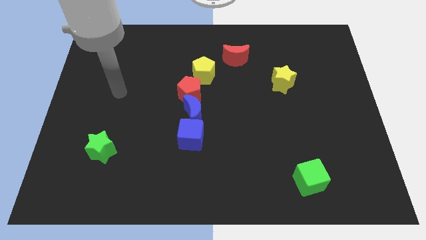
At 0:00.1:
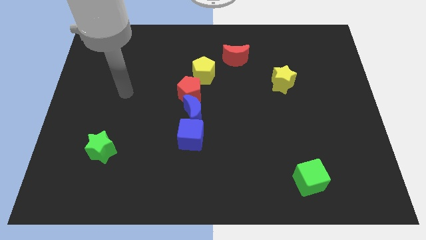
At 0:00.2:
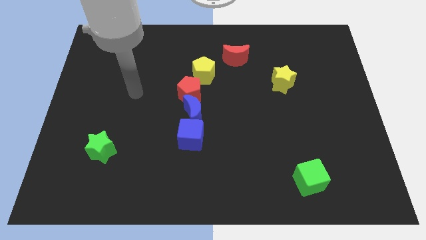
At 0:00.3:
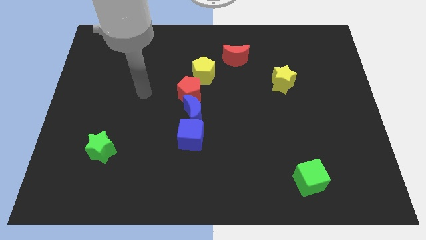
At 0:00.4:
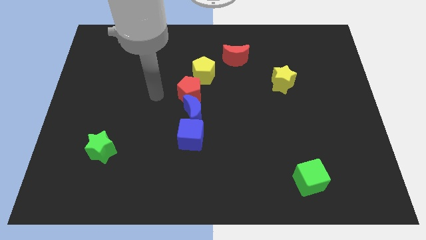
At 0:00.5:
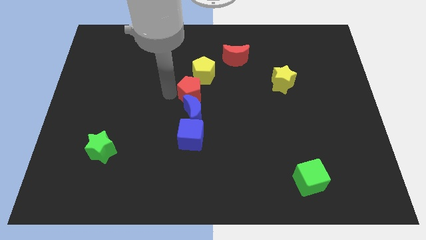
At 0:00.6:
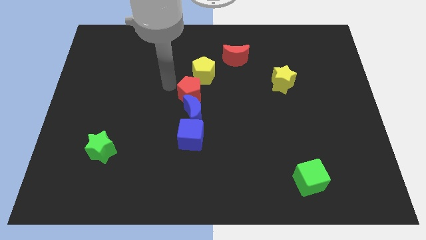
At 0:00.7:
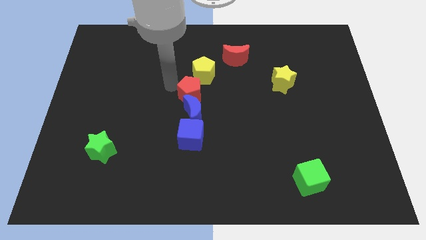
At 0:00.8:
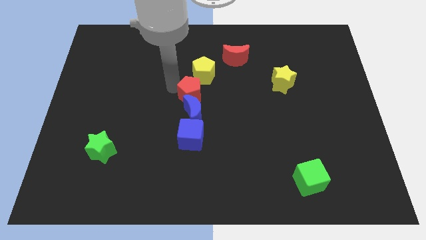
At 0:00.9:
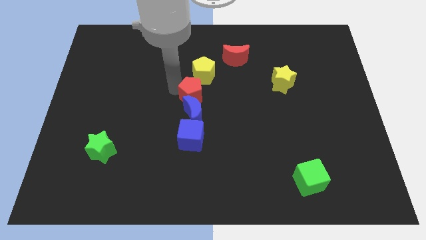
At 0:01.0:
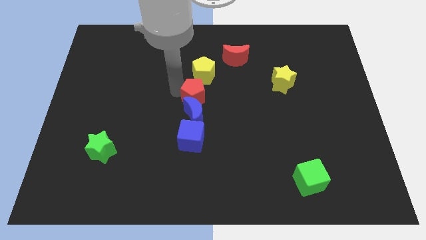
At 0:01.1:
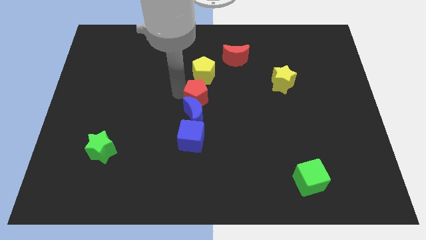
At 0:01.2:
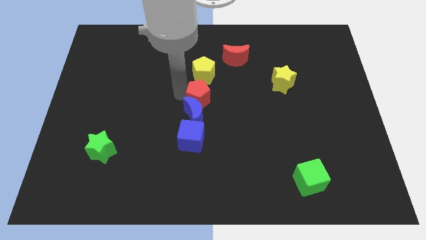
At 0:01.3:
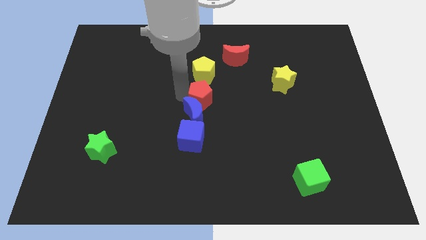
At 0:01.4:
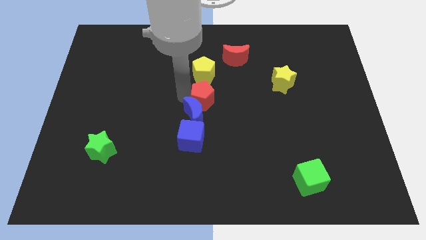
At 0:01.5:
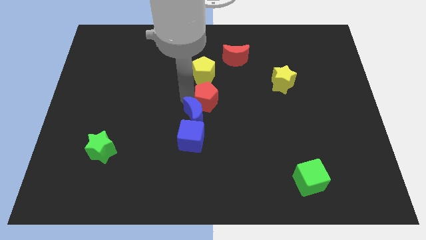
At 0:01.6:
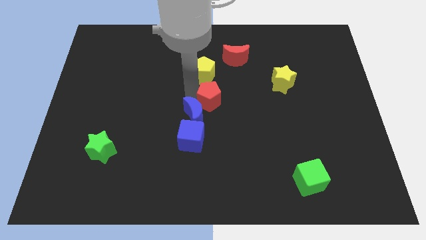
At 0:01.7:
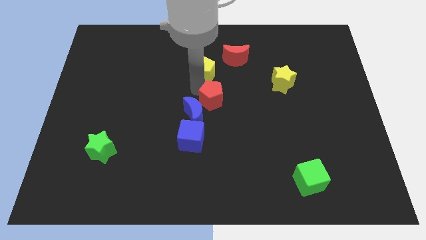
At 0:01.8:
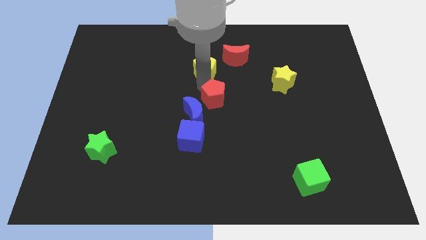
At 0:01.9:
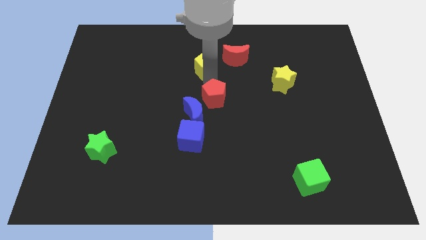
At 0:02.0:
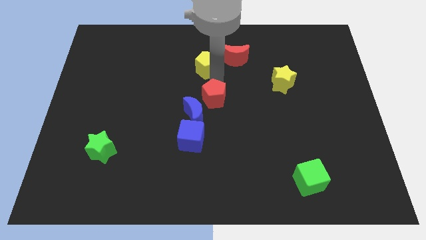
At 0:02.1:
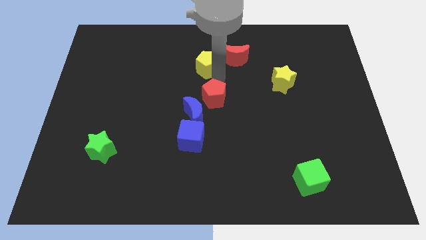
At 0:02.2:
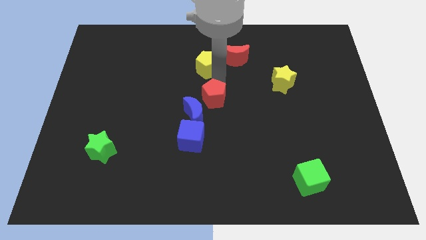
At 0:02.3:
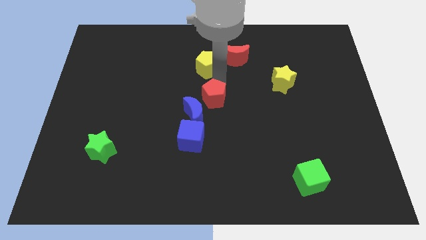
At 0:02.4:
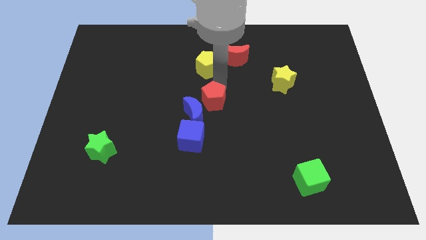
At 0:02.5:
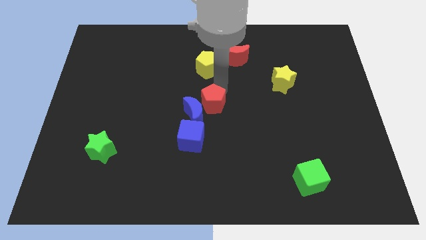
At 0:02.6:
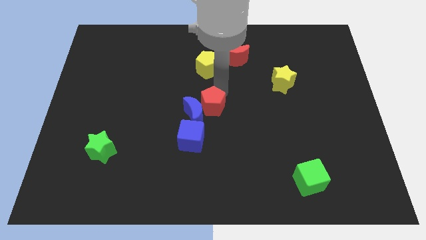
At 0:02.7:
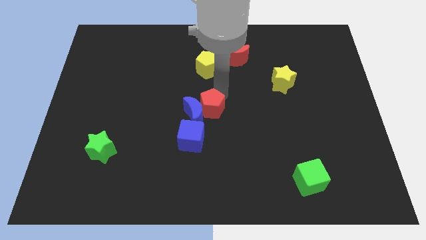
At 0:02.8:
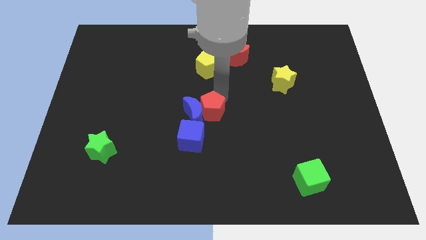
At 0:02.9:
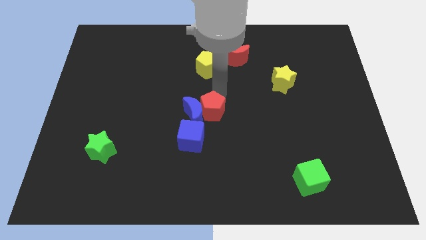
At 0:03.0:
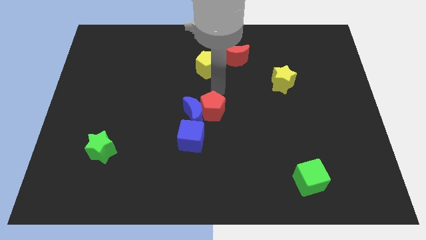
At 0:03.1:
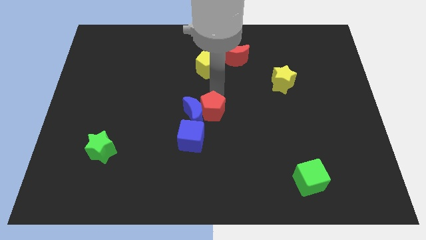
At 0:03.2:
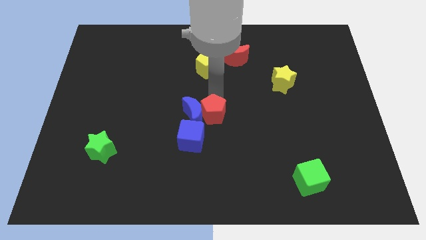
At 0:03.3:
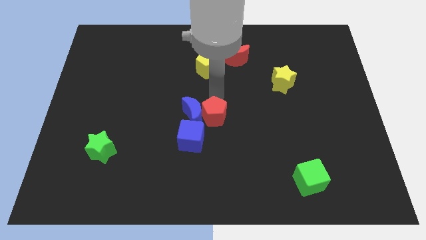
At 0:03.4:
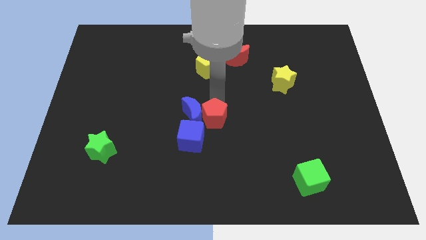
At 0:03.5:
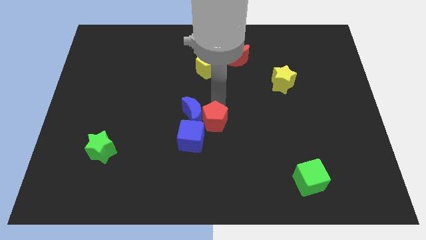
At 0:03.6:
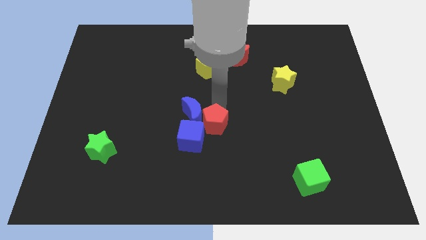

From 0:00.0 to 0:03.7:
slightly move the red pentagon down

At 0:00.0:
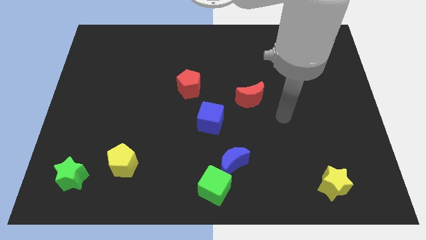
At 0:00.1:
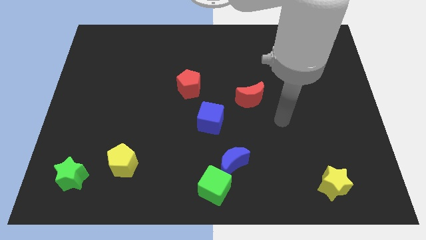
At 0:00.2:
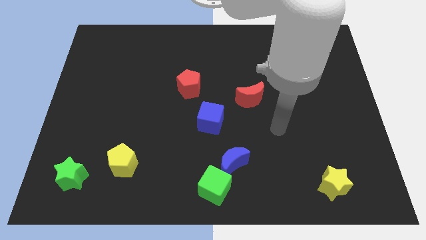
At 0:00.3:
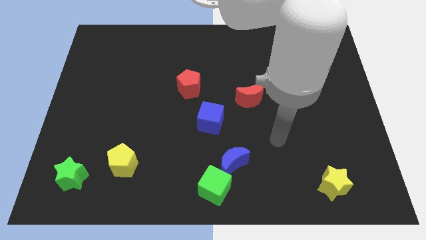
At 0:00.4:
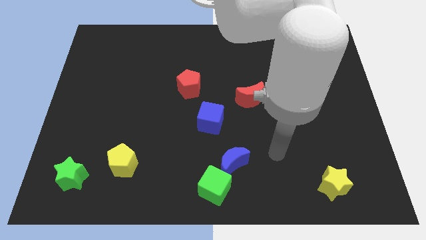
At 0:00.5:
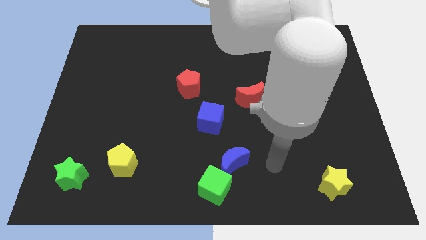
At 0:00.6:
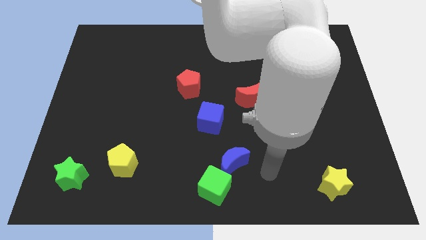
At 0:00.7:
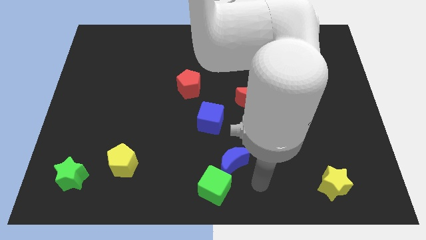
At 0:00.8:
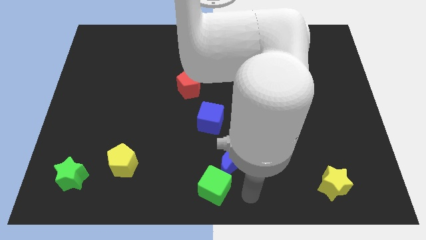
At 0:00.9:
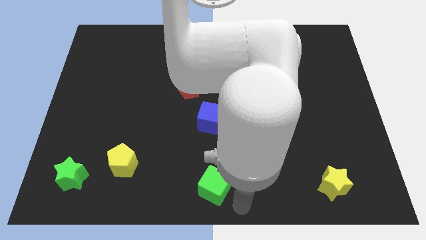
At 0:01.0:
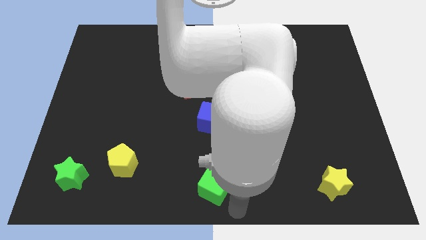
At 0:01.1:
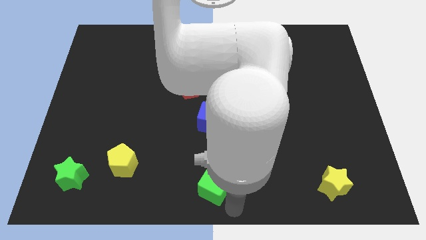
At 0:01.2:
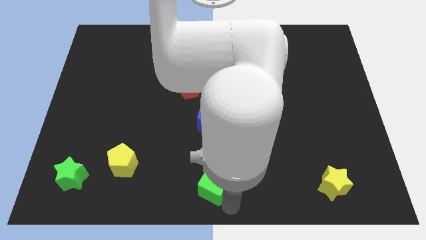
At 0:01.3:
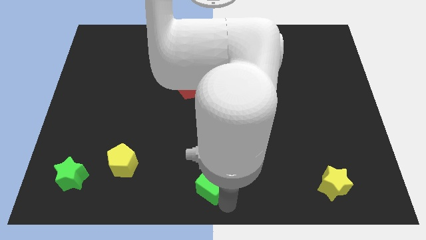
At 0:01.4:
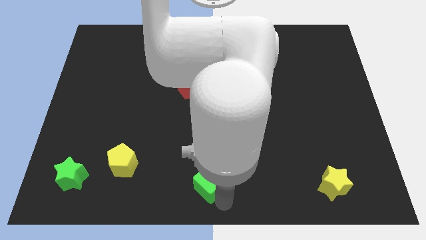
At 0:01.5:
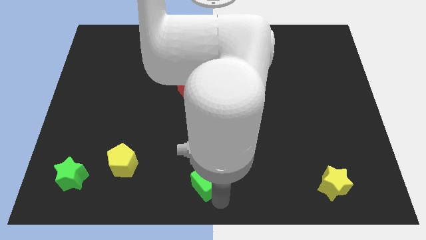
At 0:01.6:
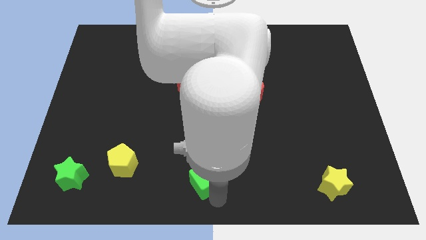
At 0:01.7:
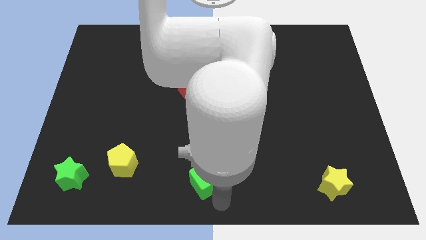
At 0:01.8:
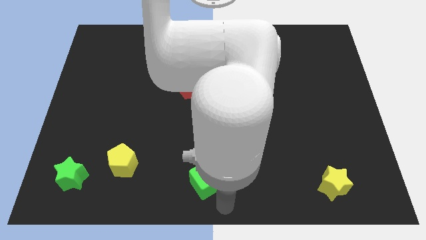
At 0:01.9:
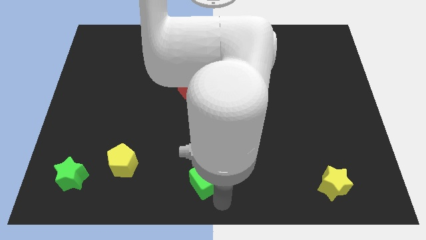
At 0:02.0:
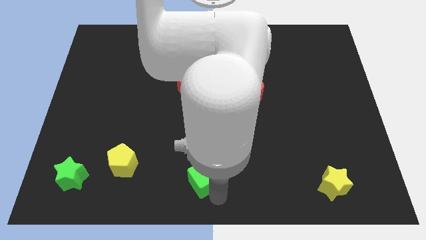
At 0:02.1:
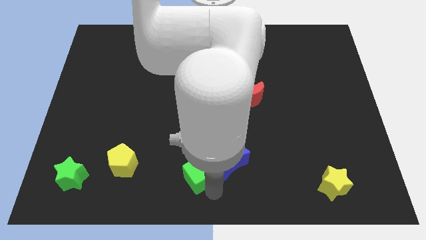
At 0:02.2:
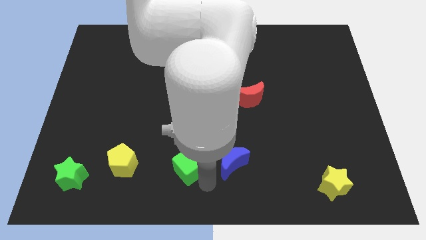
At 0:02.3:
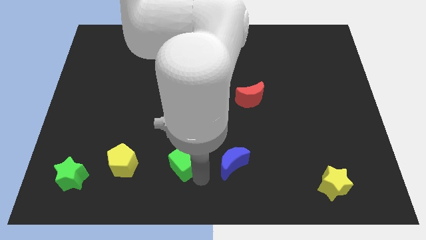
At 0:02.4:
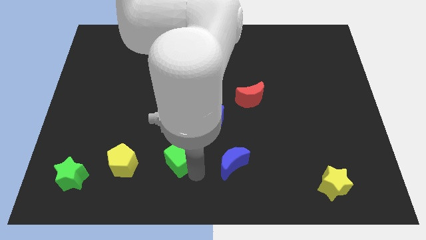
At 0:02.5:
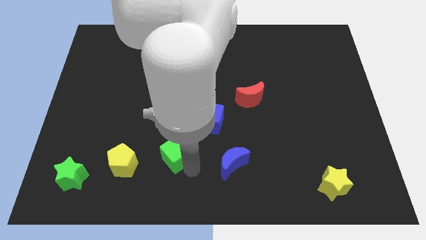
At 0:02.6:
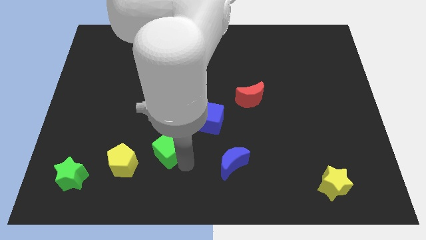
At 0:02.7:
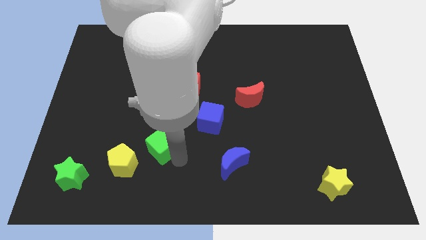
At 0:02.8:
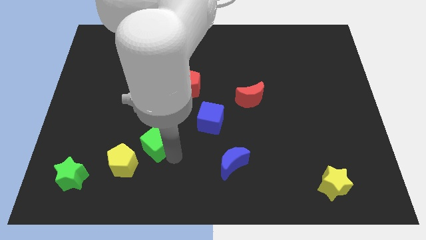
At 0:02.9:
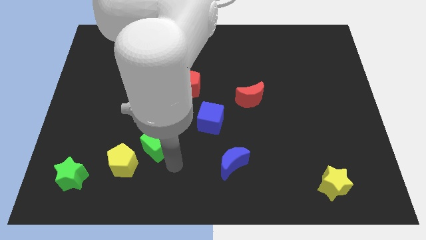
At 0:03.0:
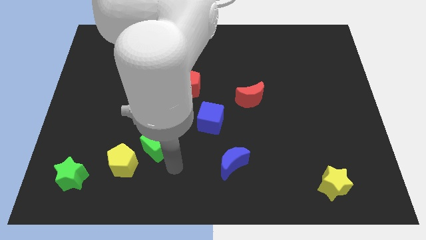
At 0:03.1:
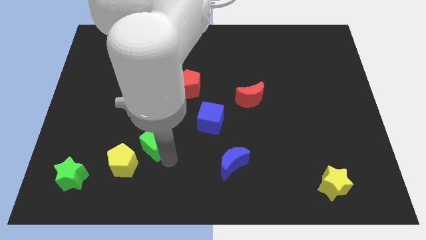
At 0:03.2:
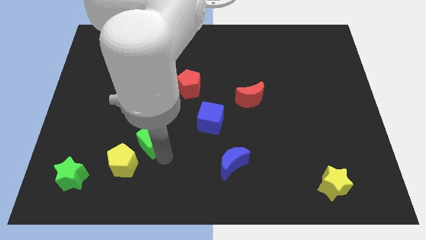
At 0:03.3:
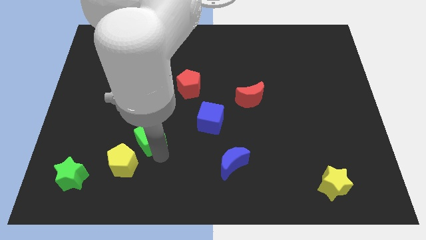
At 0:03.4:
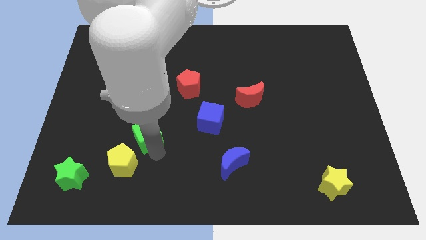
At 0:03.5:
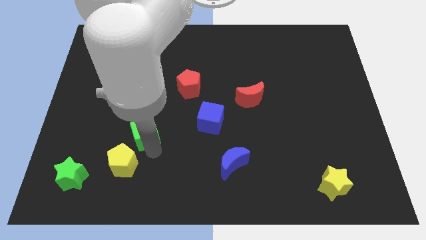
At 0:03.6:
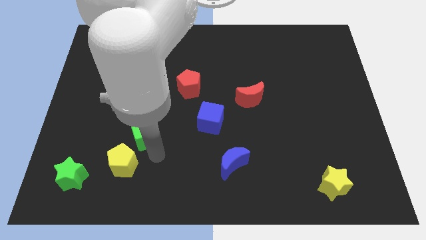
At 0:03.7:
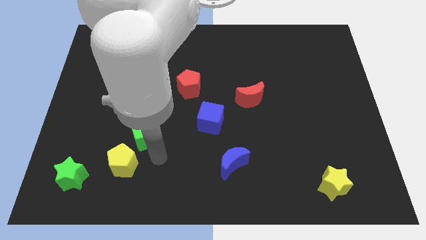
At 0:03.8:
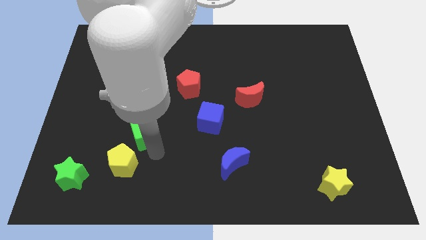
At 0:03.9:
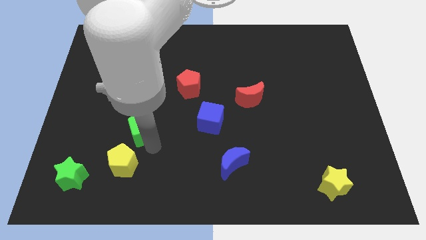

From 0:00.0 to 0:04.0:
move the green cube upwards and to the left
